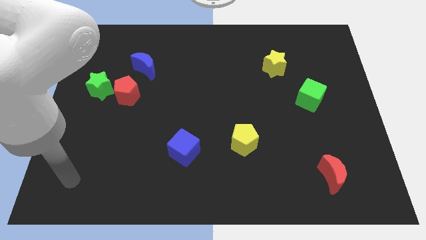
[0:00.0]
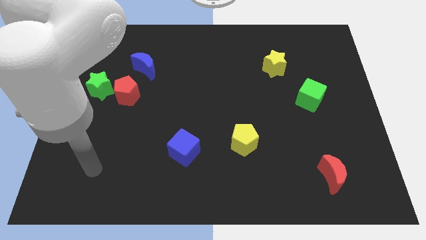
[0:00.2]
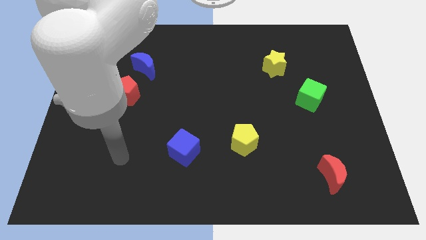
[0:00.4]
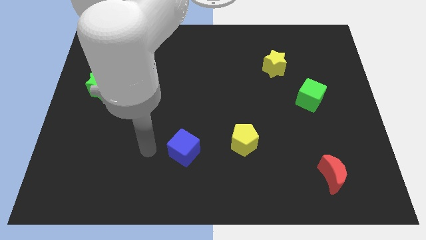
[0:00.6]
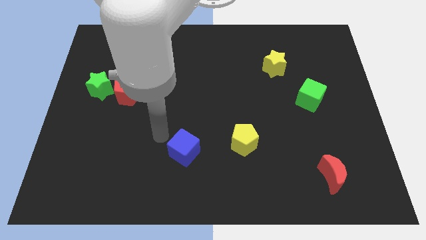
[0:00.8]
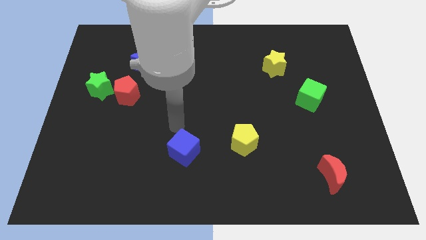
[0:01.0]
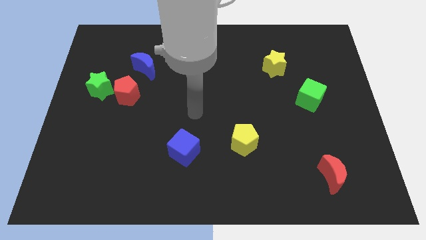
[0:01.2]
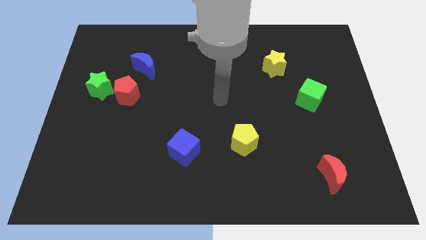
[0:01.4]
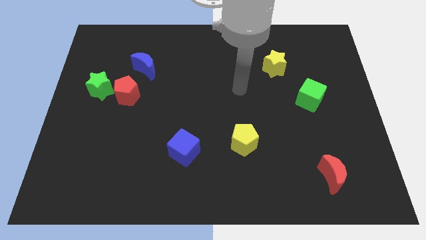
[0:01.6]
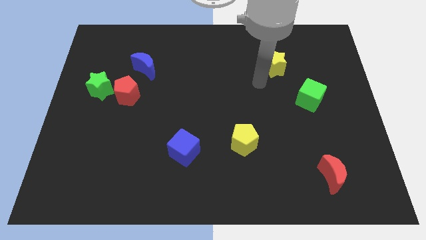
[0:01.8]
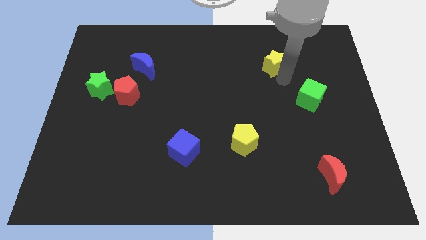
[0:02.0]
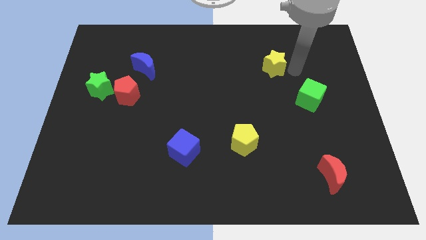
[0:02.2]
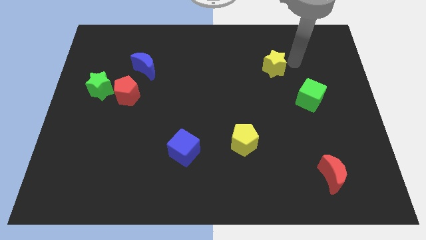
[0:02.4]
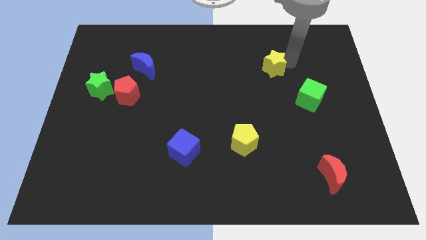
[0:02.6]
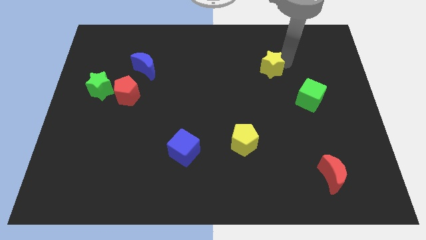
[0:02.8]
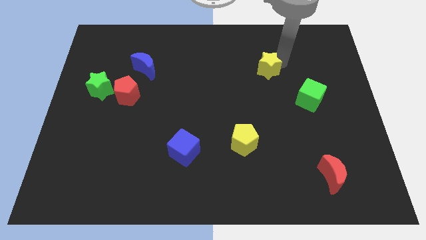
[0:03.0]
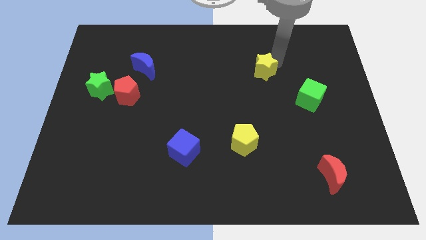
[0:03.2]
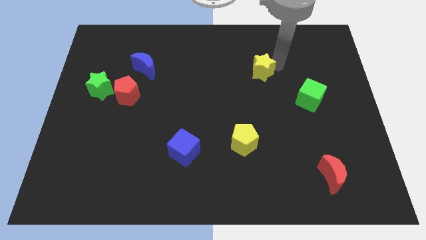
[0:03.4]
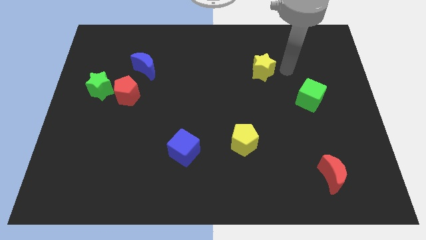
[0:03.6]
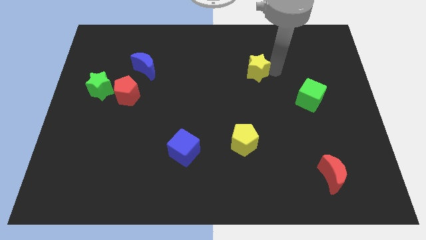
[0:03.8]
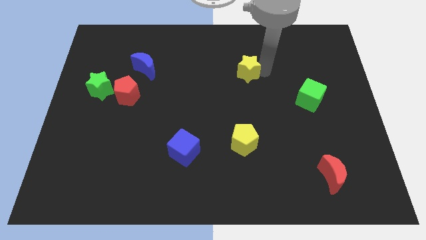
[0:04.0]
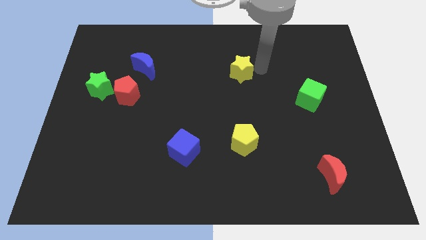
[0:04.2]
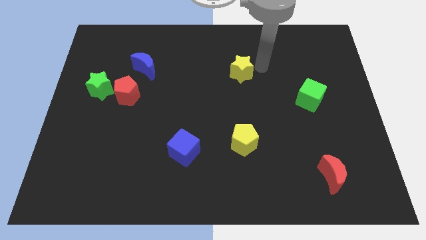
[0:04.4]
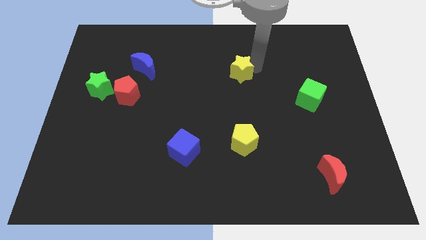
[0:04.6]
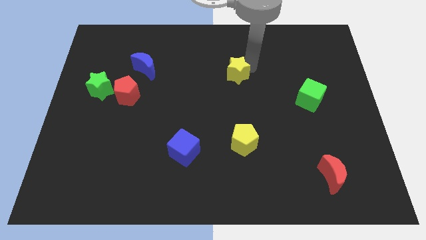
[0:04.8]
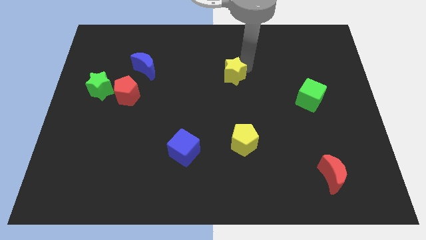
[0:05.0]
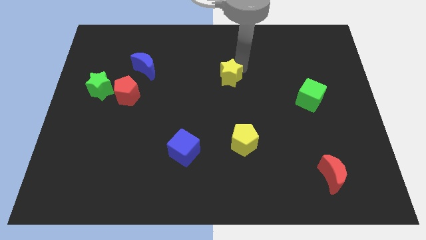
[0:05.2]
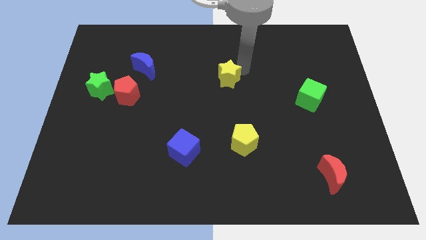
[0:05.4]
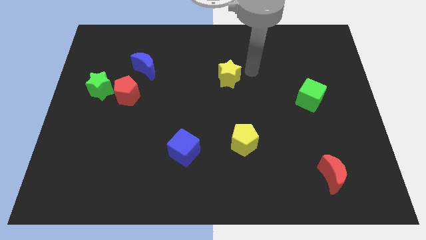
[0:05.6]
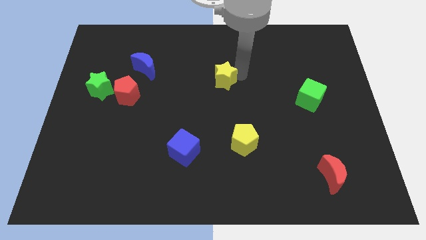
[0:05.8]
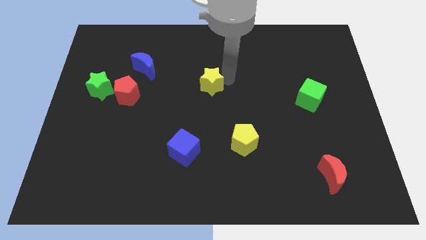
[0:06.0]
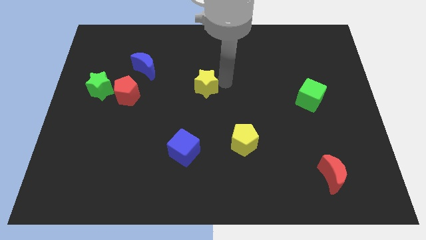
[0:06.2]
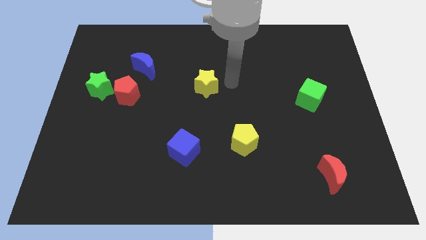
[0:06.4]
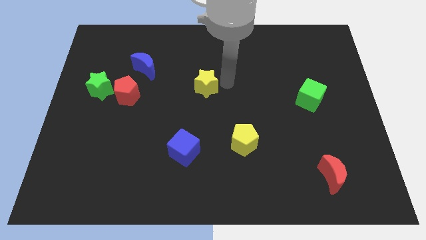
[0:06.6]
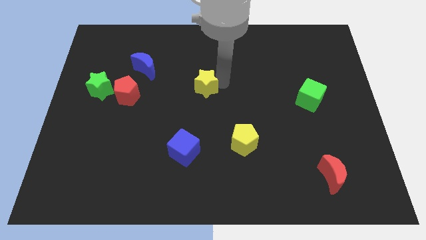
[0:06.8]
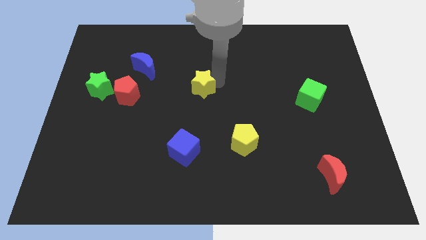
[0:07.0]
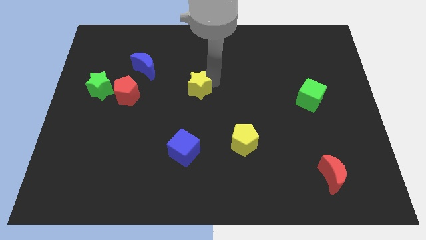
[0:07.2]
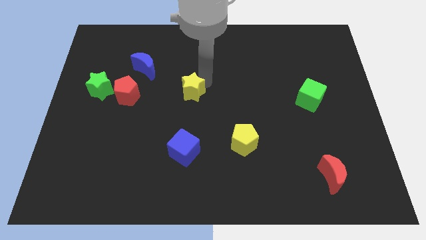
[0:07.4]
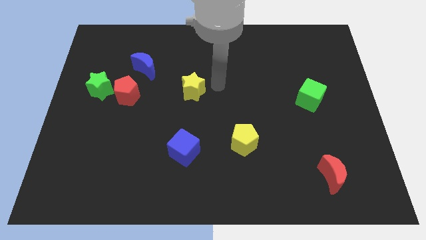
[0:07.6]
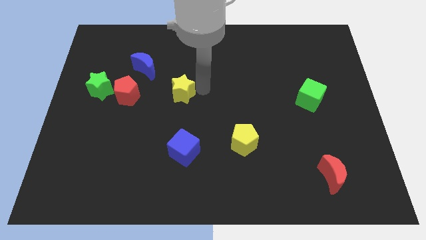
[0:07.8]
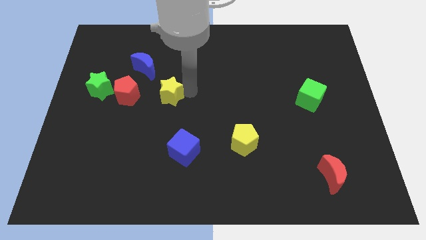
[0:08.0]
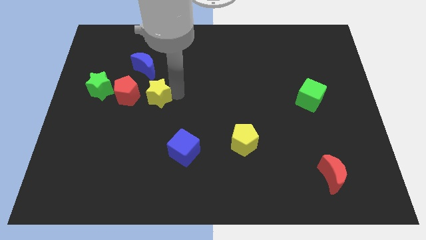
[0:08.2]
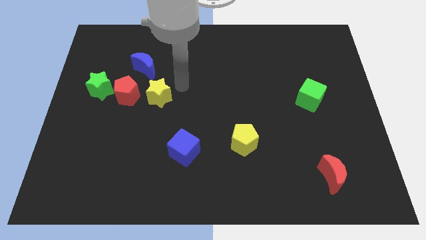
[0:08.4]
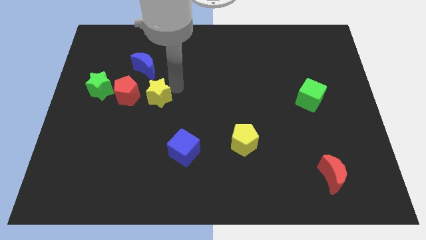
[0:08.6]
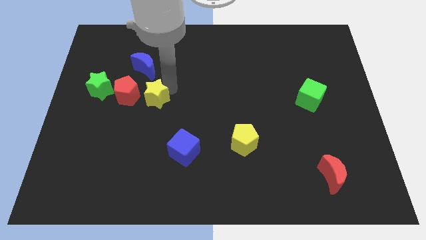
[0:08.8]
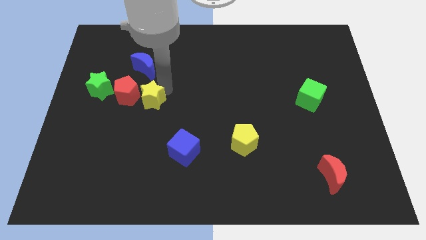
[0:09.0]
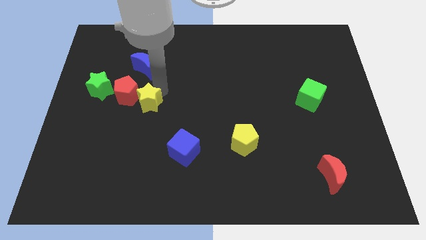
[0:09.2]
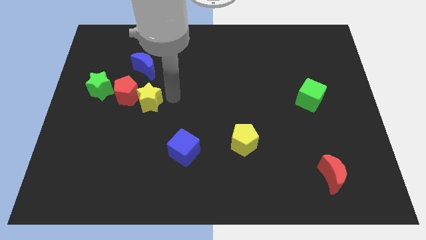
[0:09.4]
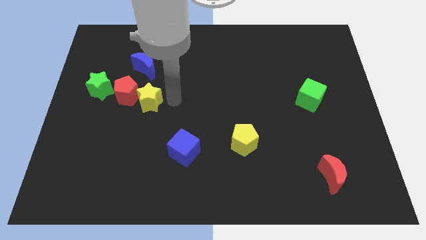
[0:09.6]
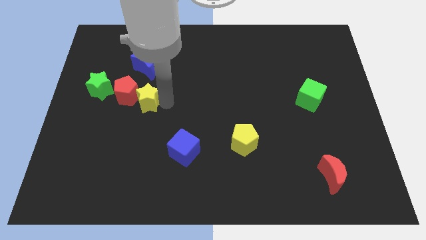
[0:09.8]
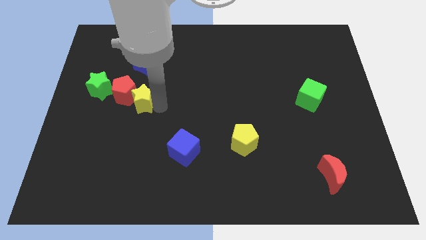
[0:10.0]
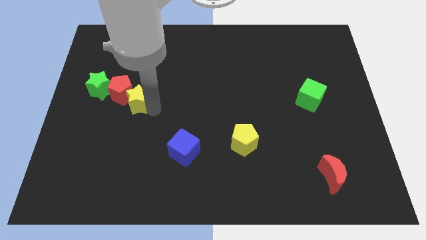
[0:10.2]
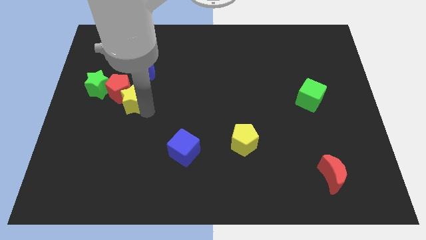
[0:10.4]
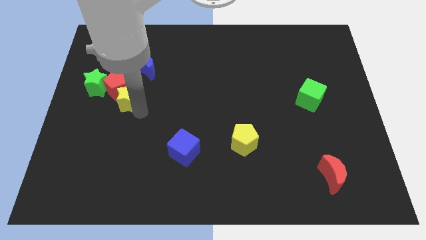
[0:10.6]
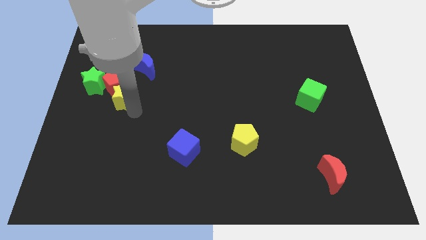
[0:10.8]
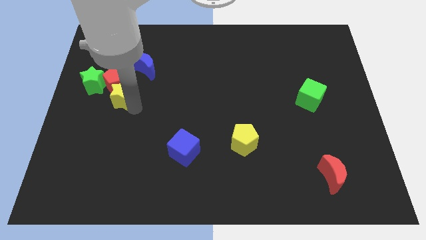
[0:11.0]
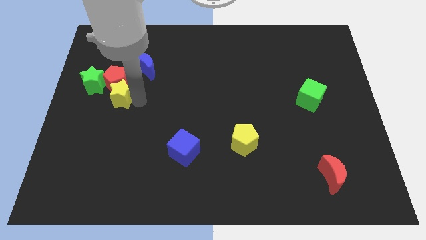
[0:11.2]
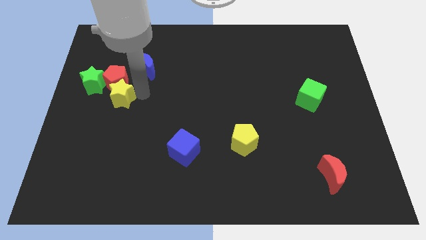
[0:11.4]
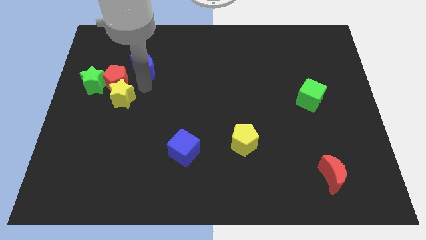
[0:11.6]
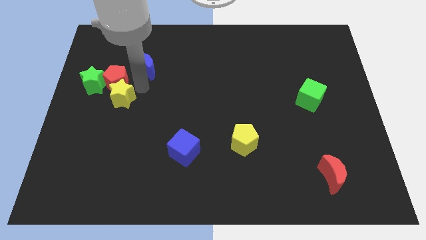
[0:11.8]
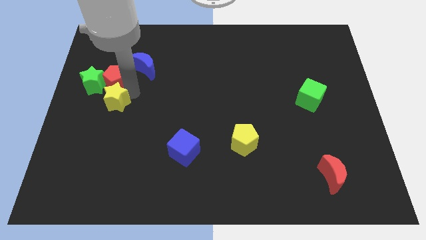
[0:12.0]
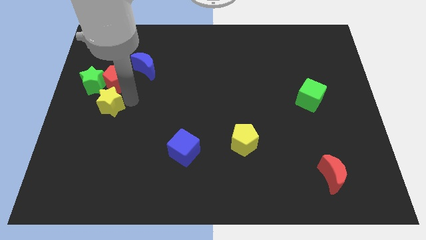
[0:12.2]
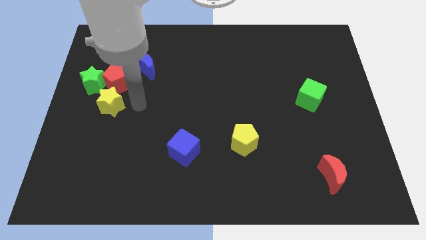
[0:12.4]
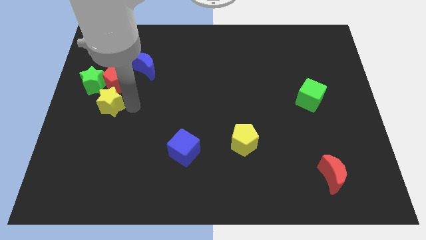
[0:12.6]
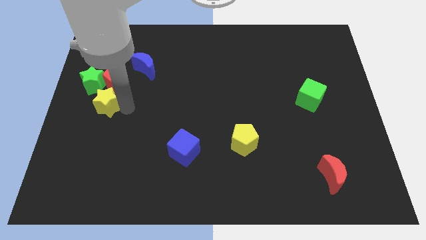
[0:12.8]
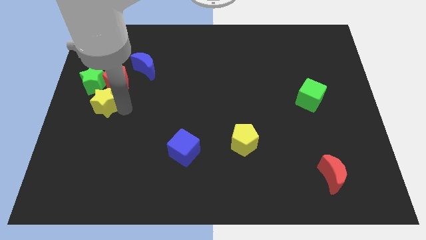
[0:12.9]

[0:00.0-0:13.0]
put the yellow star to the left side

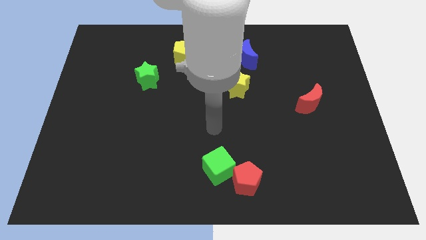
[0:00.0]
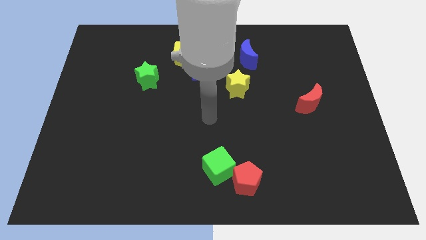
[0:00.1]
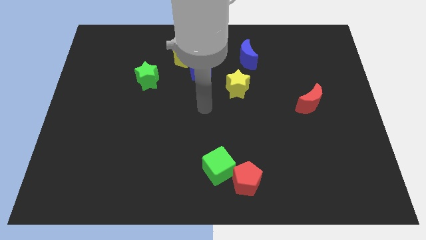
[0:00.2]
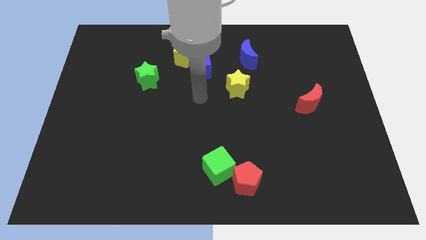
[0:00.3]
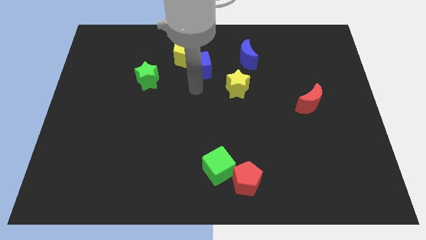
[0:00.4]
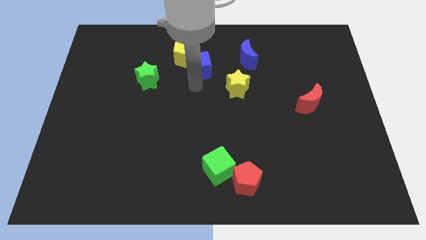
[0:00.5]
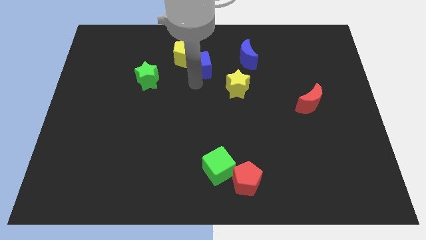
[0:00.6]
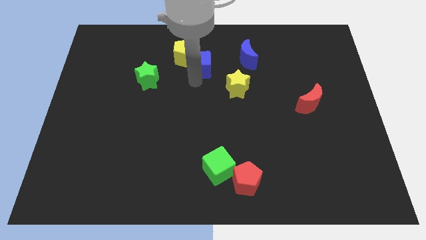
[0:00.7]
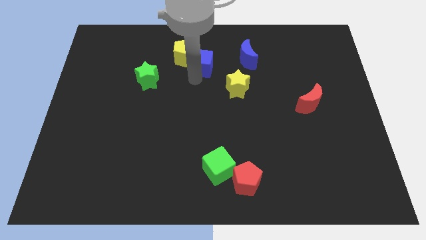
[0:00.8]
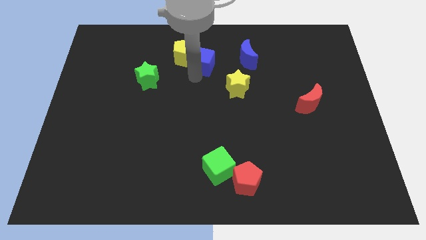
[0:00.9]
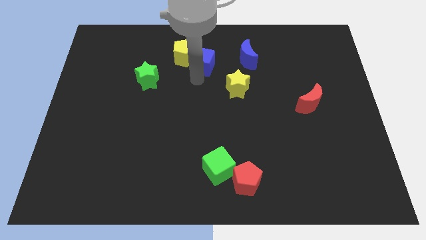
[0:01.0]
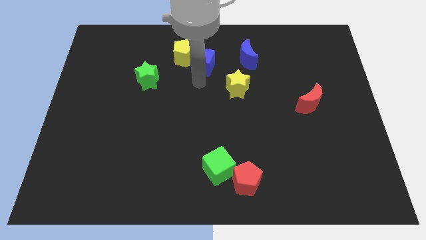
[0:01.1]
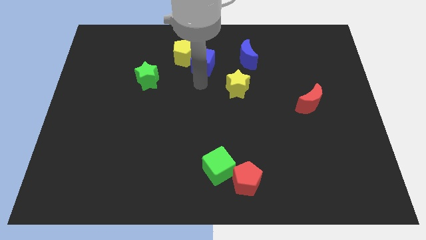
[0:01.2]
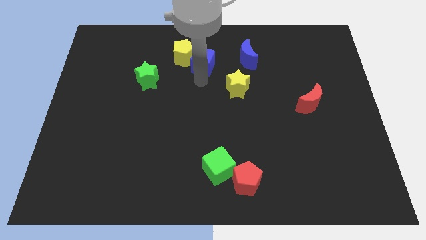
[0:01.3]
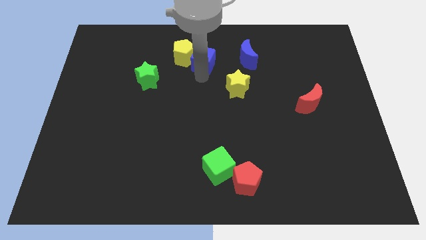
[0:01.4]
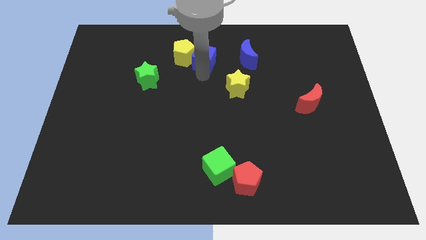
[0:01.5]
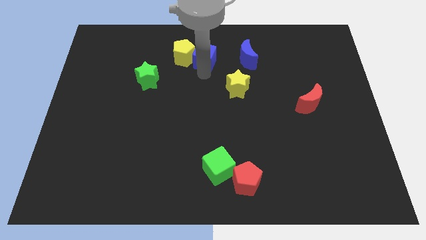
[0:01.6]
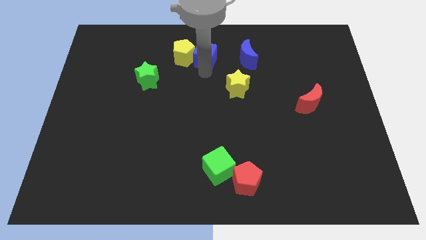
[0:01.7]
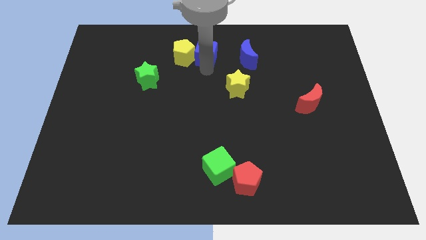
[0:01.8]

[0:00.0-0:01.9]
push the blue cube to the towards your base
